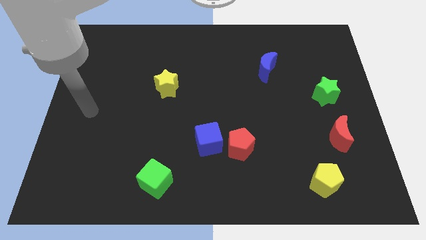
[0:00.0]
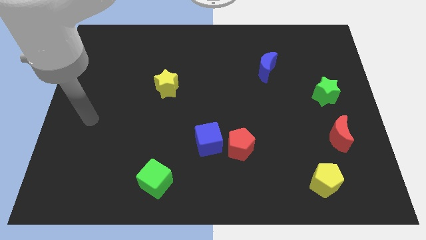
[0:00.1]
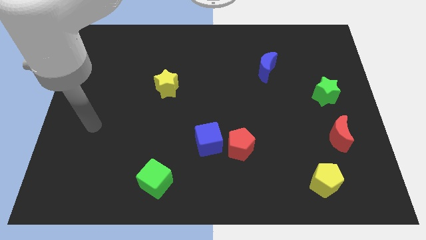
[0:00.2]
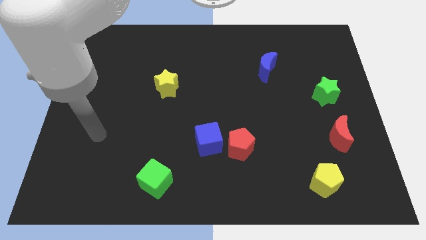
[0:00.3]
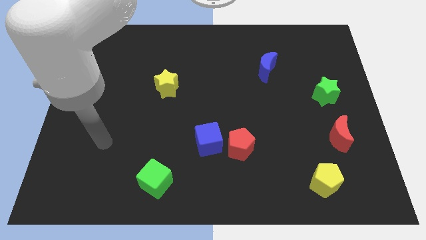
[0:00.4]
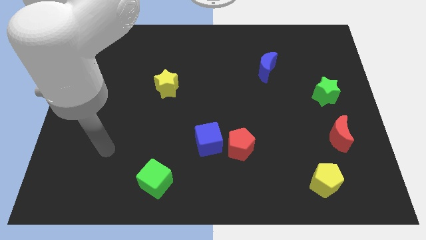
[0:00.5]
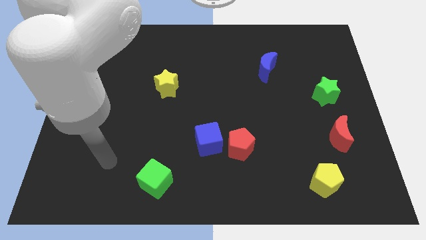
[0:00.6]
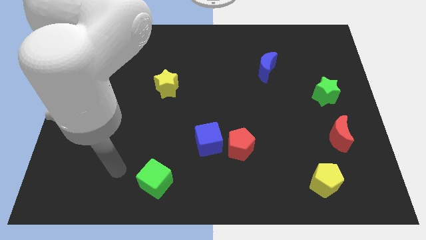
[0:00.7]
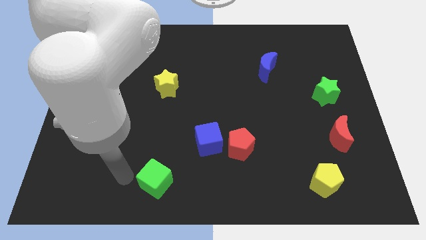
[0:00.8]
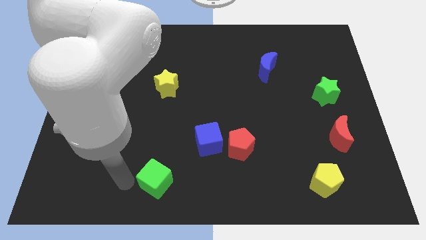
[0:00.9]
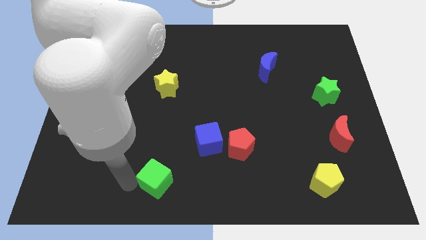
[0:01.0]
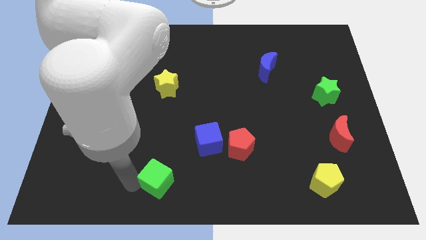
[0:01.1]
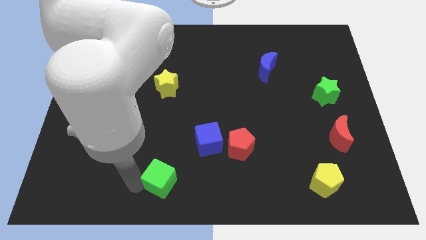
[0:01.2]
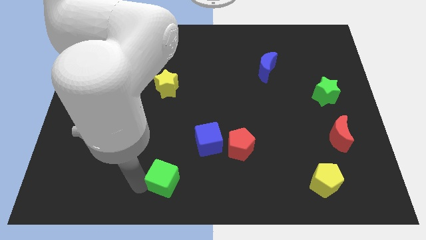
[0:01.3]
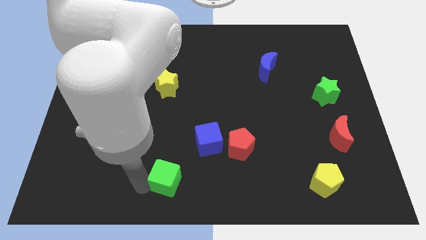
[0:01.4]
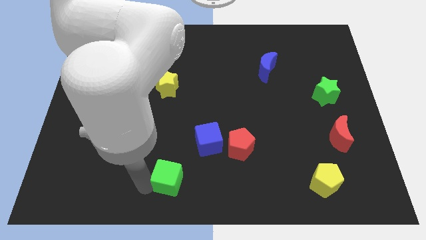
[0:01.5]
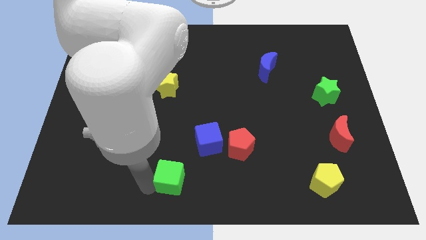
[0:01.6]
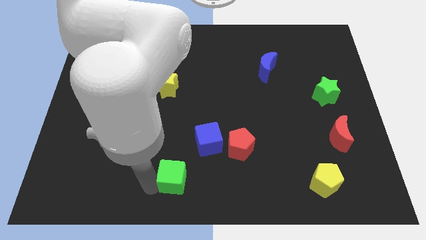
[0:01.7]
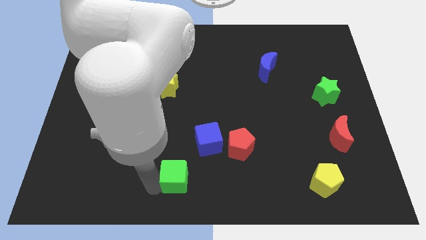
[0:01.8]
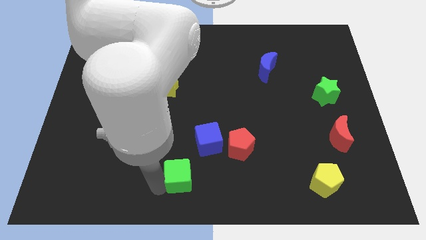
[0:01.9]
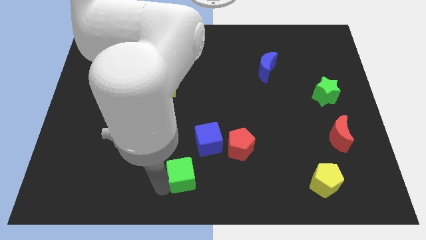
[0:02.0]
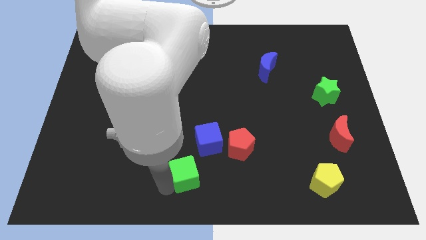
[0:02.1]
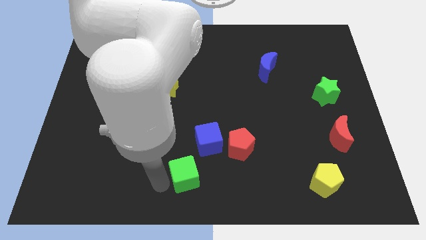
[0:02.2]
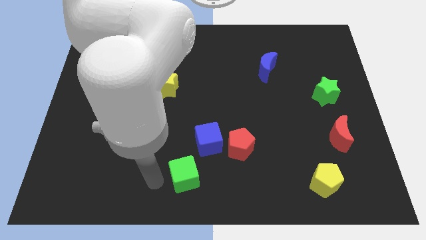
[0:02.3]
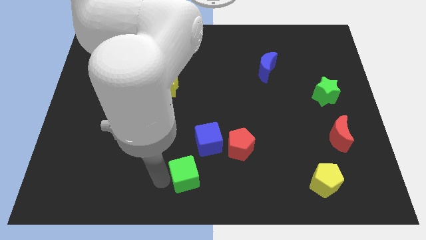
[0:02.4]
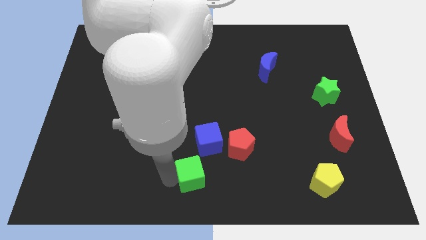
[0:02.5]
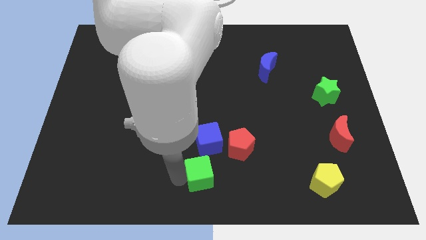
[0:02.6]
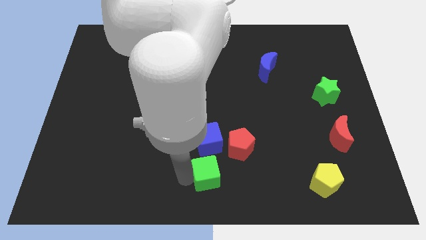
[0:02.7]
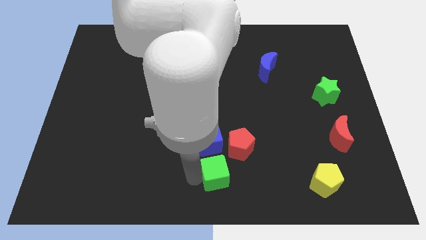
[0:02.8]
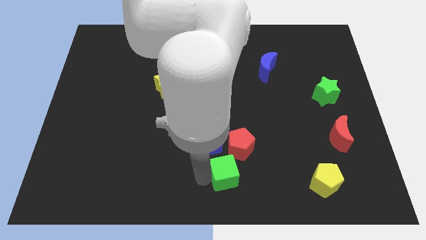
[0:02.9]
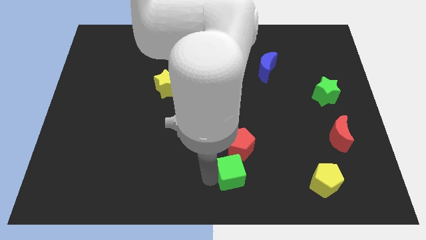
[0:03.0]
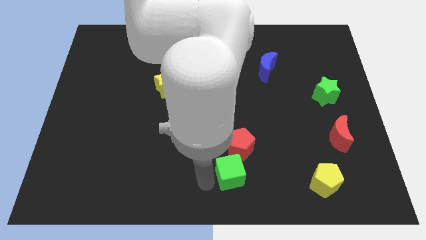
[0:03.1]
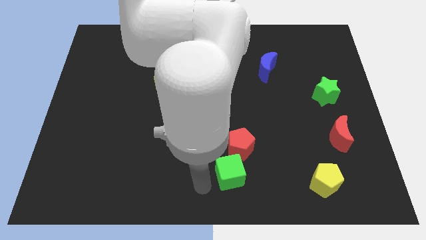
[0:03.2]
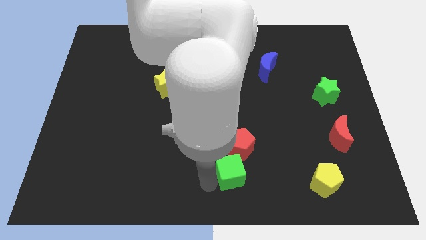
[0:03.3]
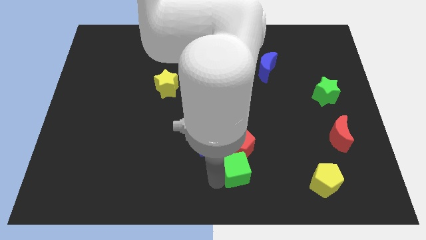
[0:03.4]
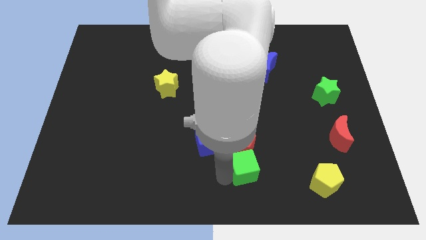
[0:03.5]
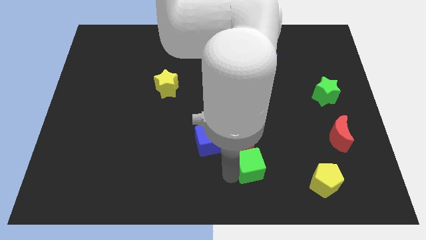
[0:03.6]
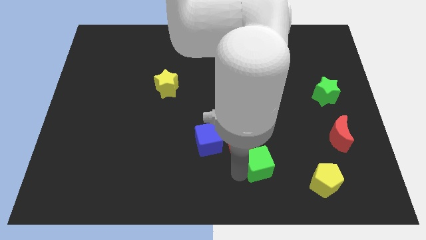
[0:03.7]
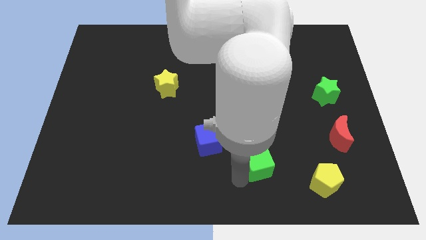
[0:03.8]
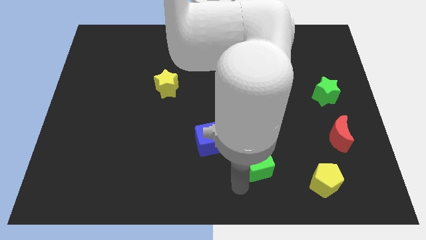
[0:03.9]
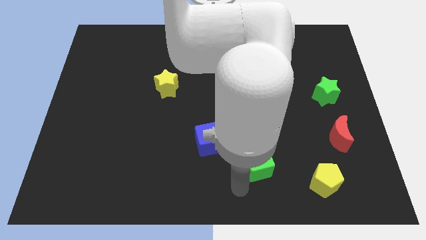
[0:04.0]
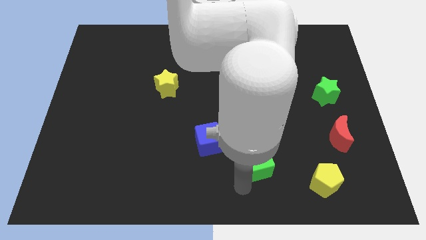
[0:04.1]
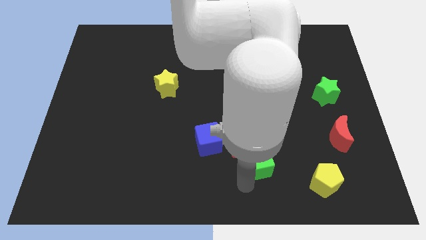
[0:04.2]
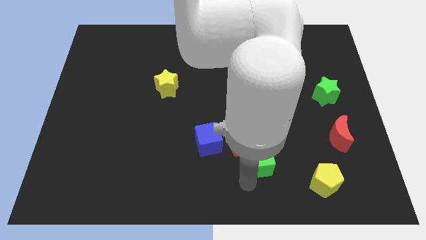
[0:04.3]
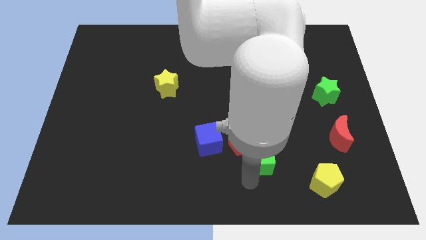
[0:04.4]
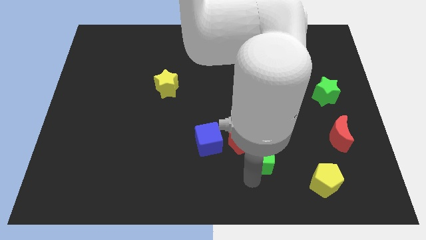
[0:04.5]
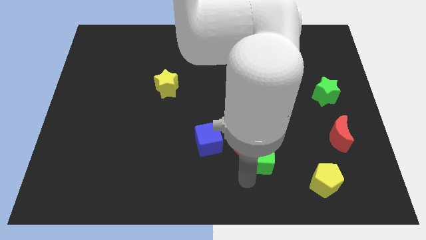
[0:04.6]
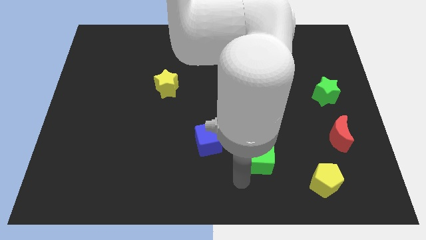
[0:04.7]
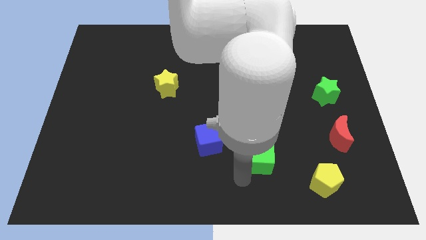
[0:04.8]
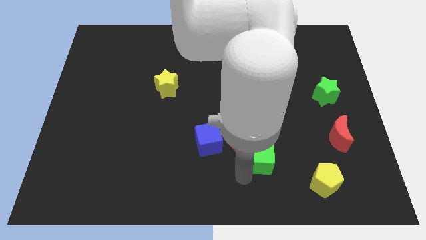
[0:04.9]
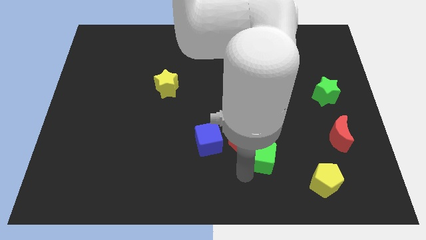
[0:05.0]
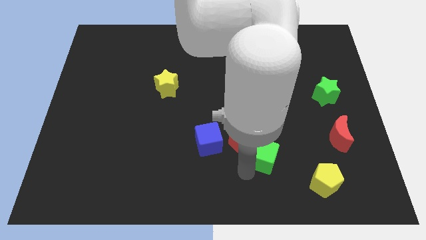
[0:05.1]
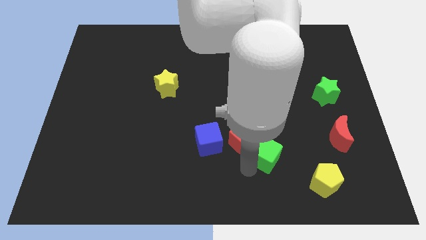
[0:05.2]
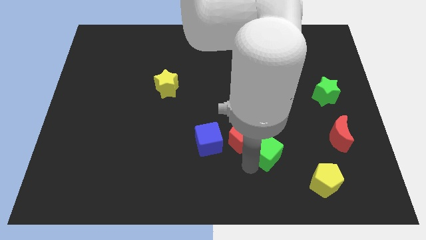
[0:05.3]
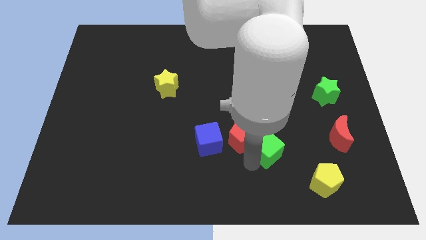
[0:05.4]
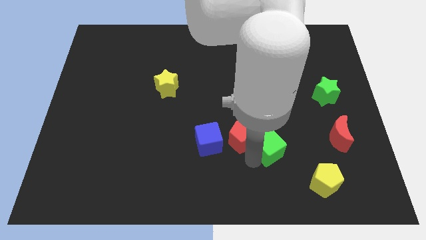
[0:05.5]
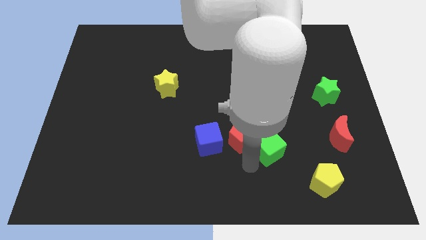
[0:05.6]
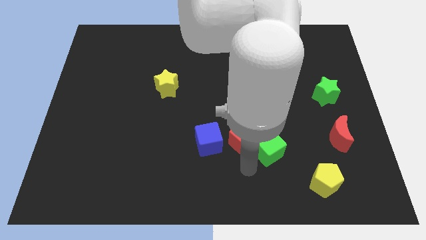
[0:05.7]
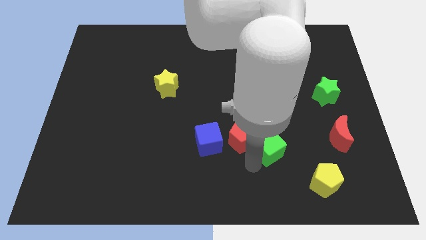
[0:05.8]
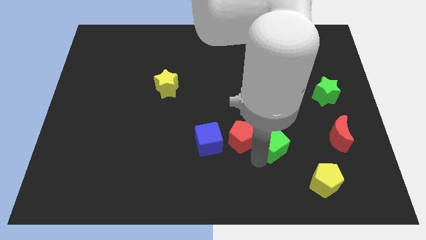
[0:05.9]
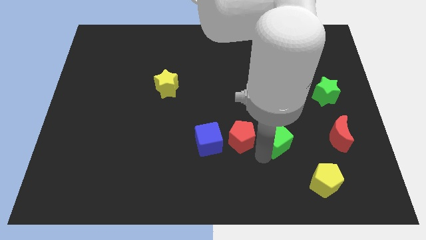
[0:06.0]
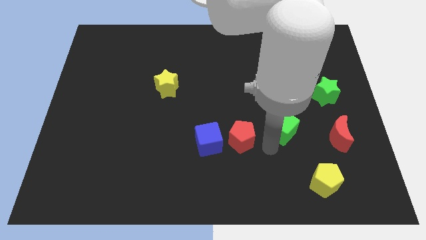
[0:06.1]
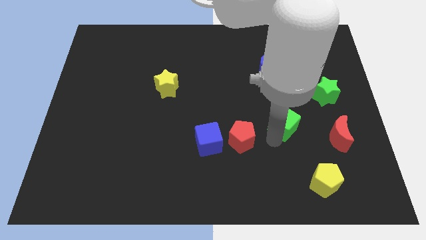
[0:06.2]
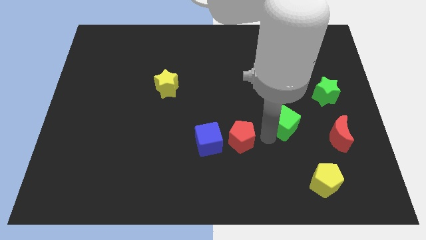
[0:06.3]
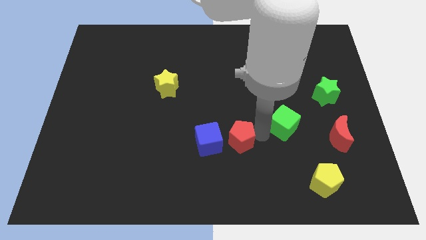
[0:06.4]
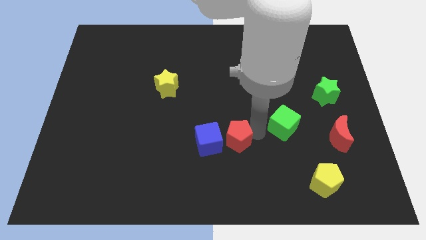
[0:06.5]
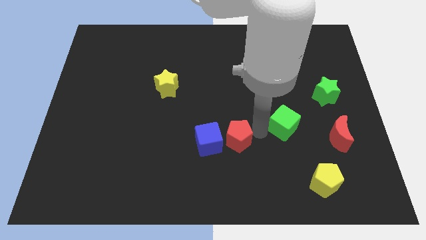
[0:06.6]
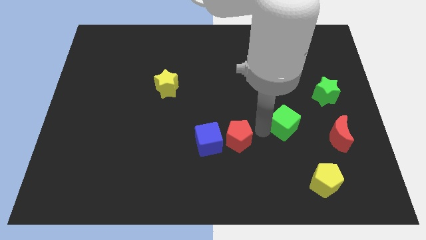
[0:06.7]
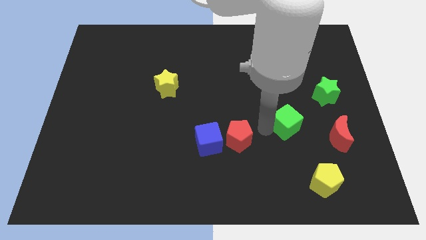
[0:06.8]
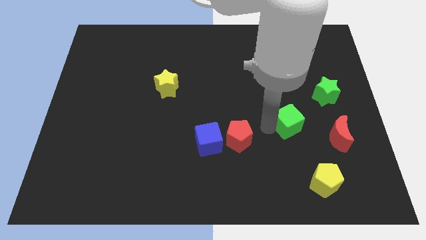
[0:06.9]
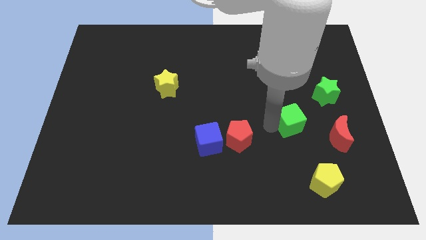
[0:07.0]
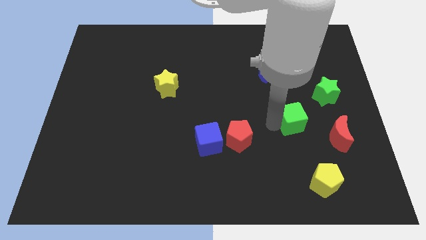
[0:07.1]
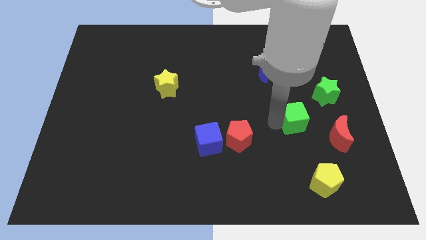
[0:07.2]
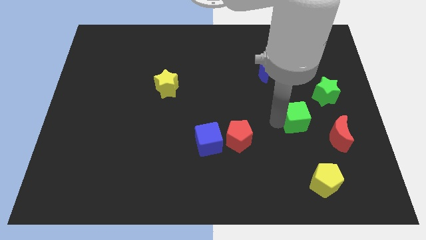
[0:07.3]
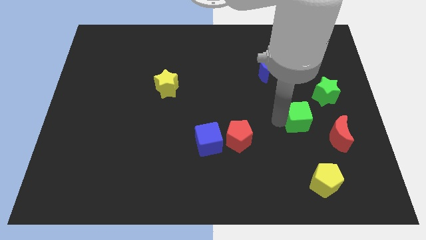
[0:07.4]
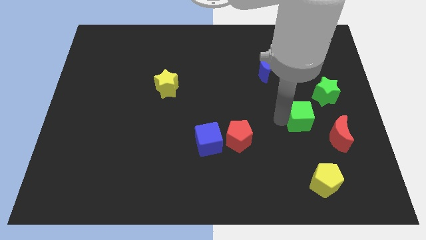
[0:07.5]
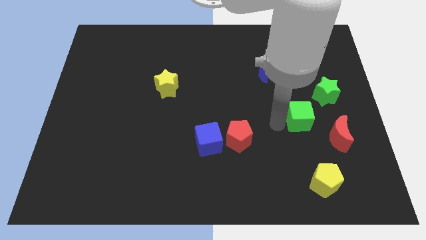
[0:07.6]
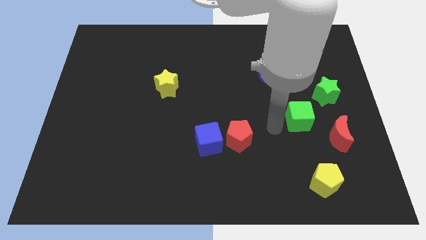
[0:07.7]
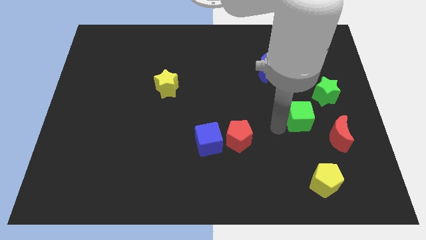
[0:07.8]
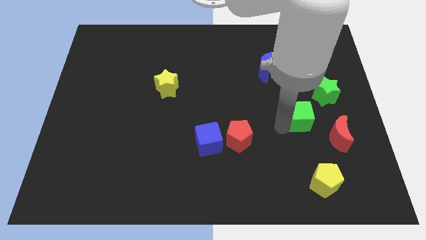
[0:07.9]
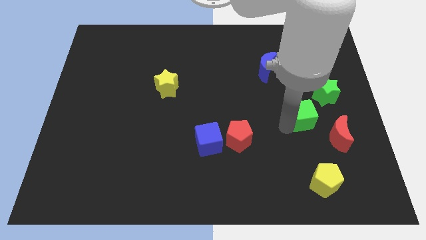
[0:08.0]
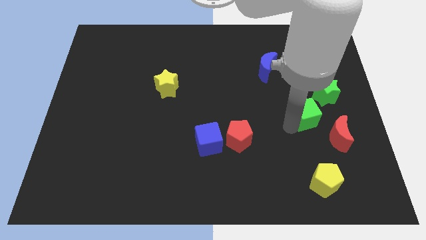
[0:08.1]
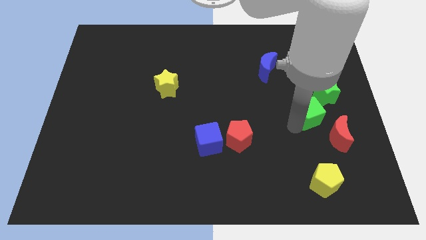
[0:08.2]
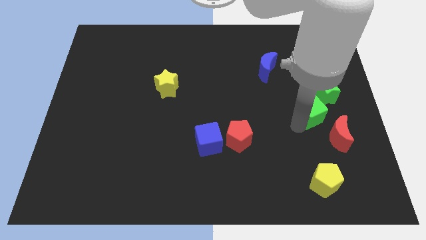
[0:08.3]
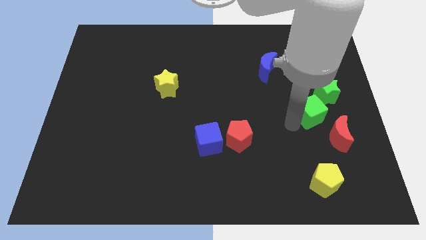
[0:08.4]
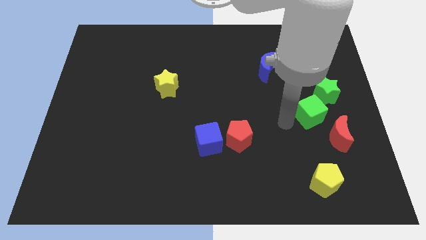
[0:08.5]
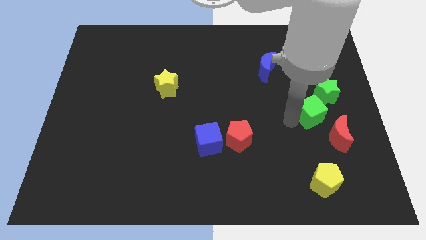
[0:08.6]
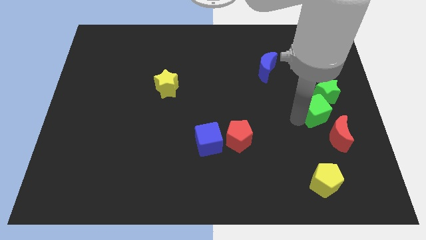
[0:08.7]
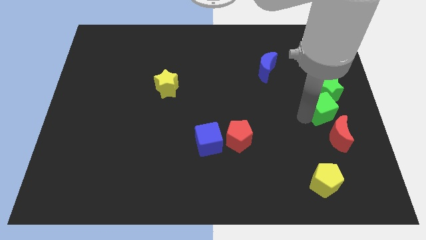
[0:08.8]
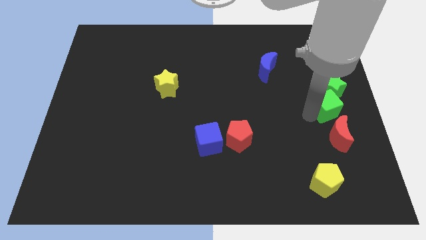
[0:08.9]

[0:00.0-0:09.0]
push the green cube to the right side of the board
